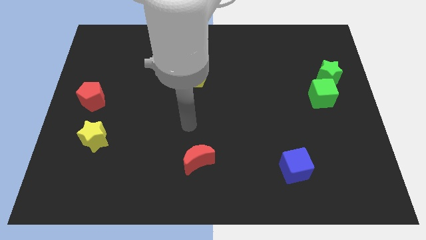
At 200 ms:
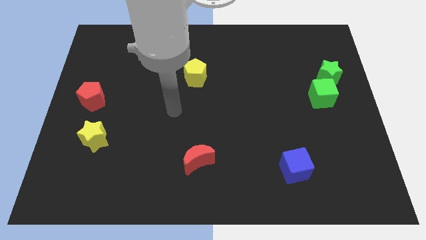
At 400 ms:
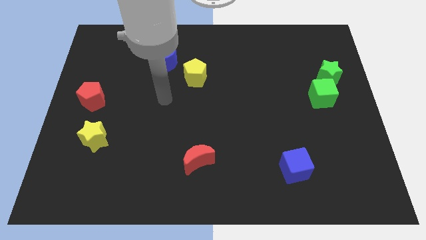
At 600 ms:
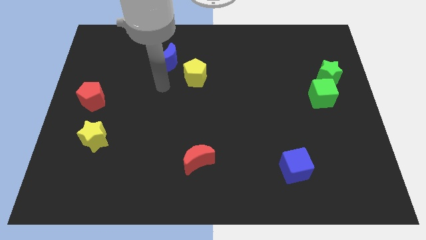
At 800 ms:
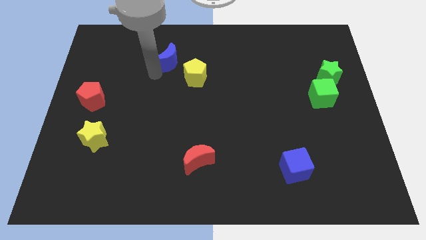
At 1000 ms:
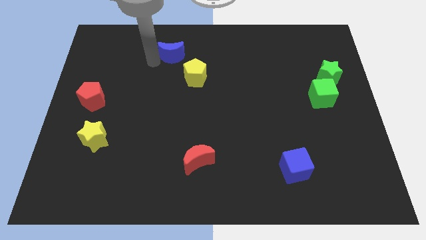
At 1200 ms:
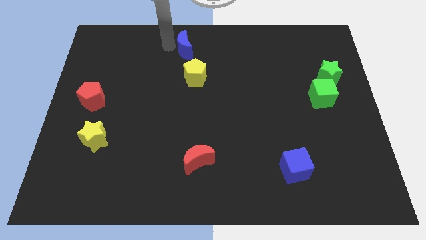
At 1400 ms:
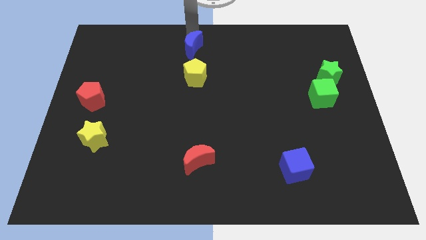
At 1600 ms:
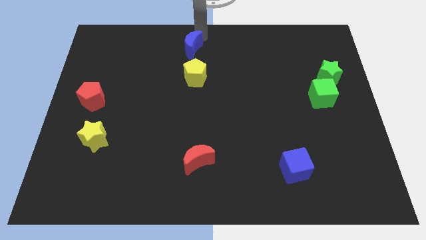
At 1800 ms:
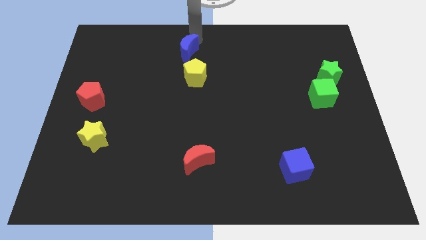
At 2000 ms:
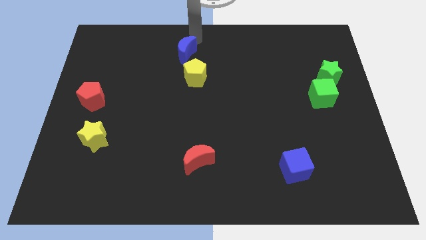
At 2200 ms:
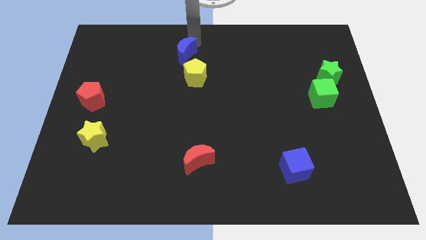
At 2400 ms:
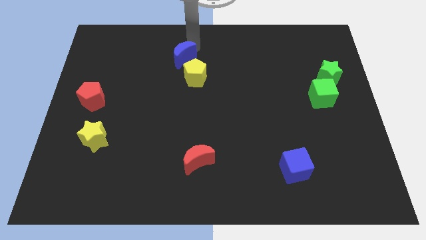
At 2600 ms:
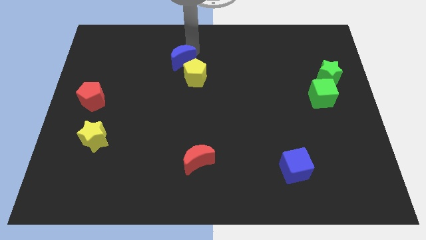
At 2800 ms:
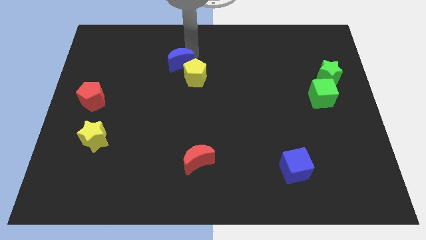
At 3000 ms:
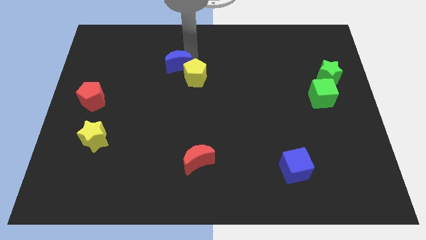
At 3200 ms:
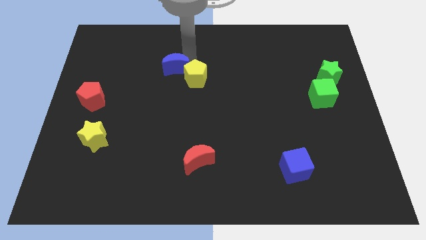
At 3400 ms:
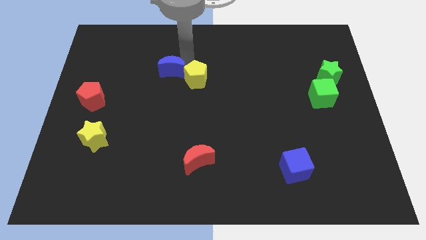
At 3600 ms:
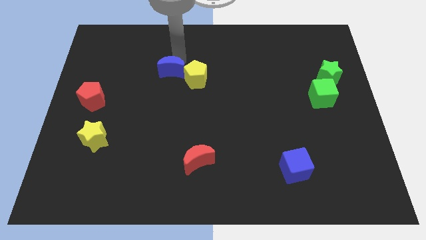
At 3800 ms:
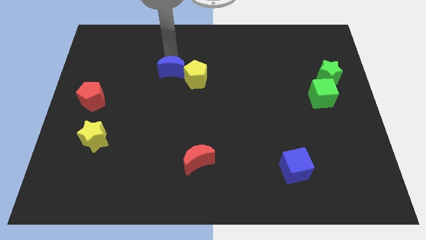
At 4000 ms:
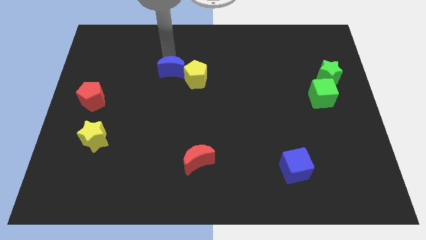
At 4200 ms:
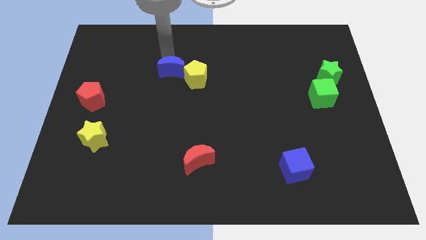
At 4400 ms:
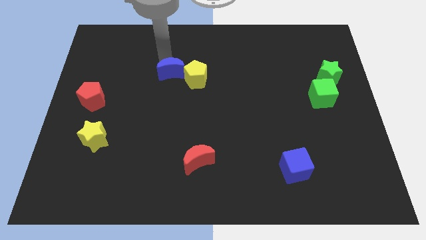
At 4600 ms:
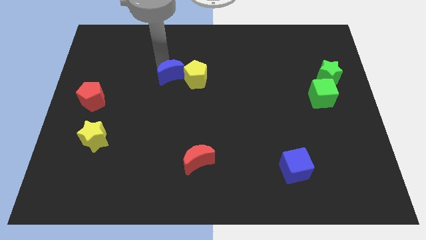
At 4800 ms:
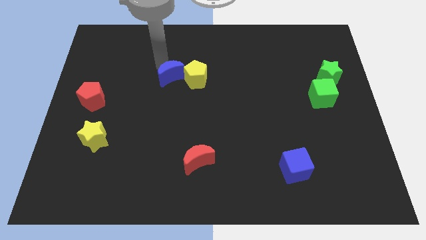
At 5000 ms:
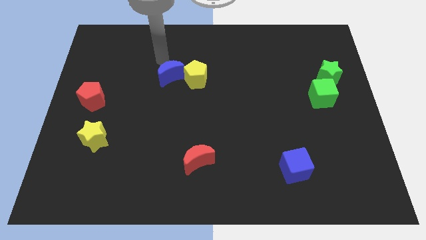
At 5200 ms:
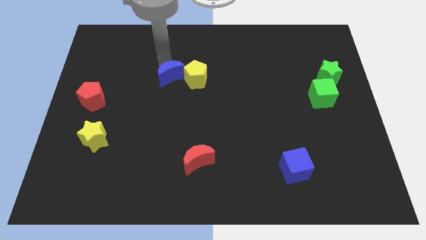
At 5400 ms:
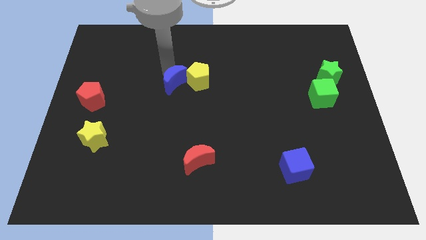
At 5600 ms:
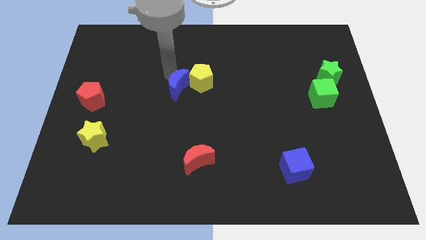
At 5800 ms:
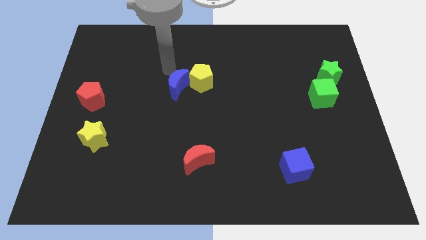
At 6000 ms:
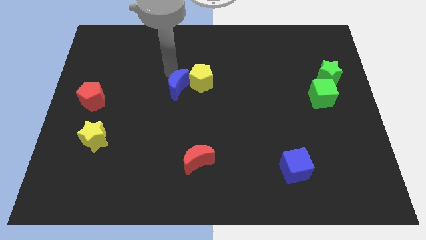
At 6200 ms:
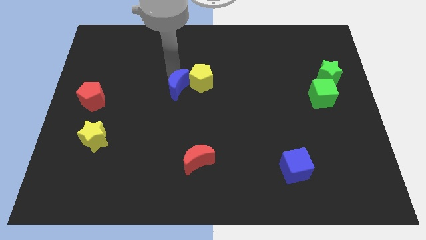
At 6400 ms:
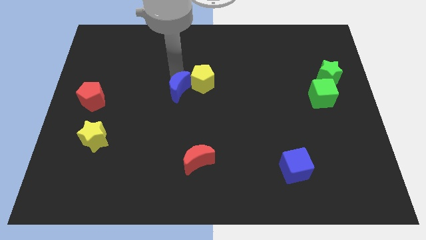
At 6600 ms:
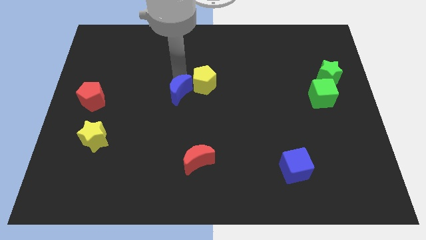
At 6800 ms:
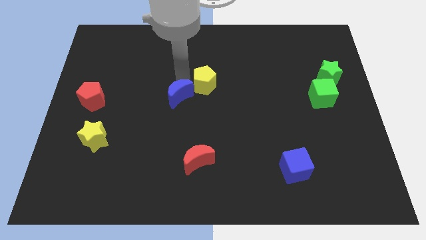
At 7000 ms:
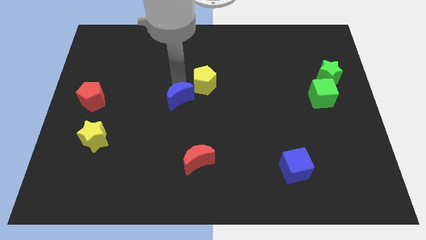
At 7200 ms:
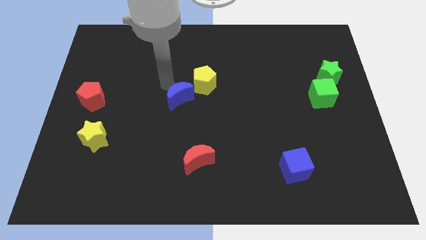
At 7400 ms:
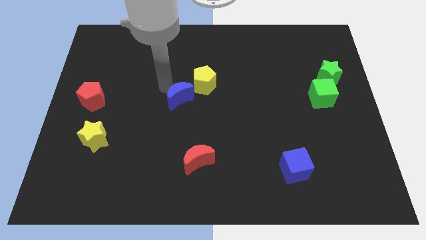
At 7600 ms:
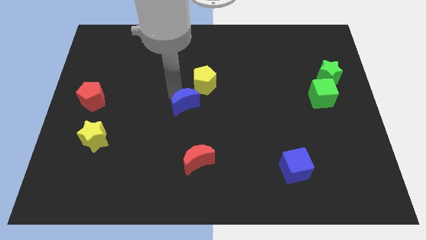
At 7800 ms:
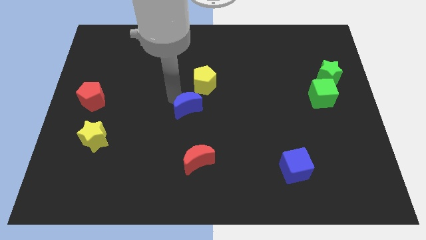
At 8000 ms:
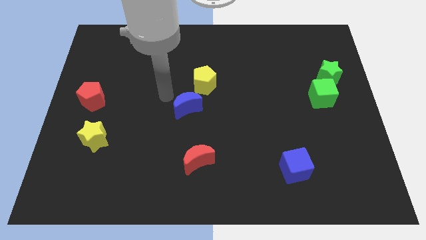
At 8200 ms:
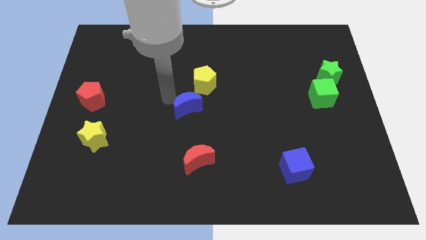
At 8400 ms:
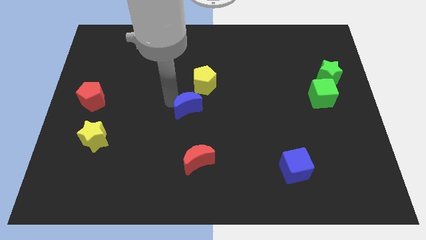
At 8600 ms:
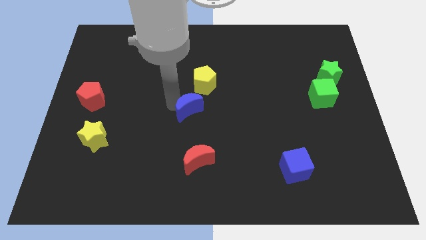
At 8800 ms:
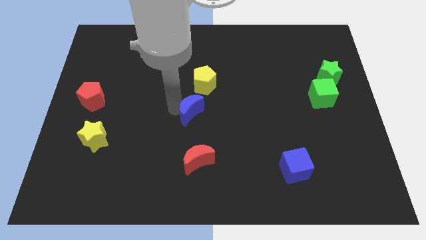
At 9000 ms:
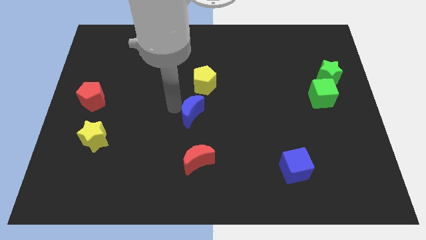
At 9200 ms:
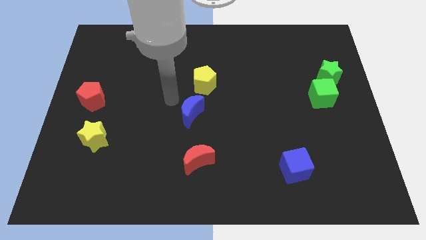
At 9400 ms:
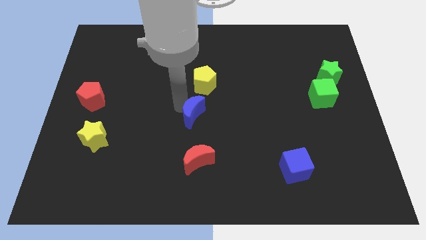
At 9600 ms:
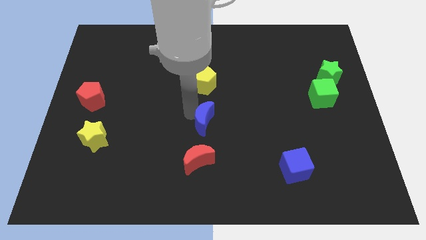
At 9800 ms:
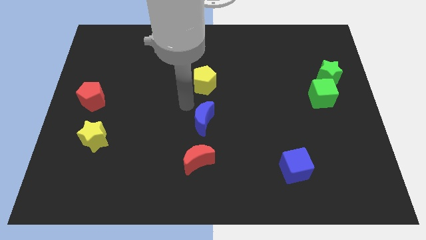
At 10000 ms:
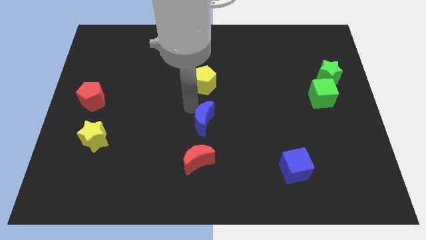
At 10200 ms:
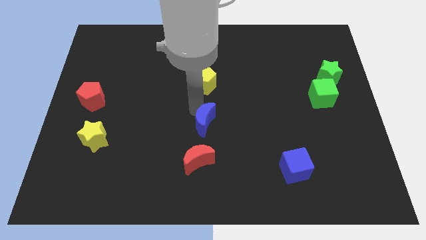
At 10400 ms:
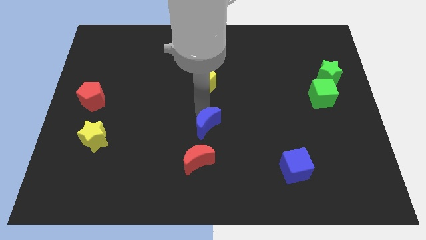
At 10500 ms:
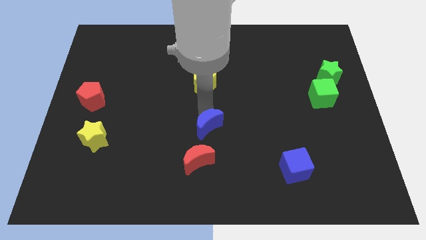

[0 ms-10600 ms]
slide the blue moon to the top right side of the red moon

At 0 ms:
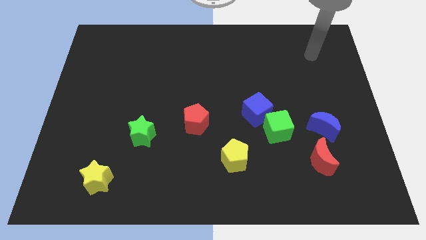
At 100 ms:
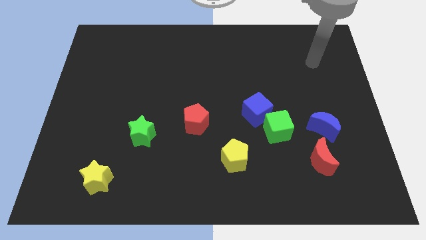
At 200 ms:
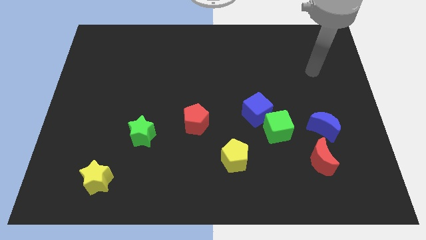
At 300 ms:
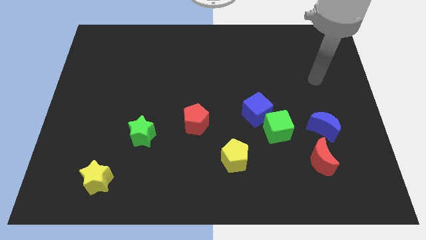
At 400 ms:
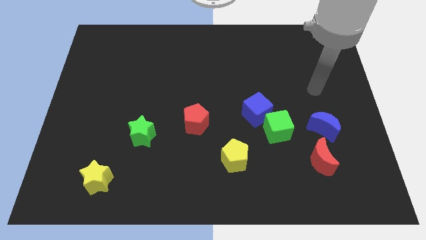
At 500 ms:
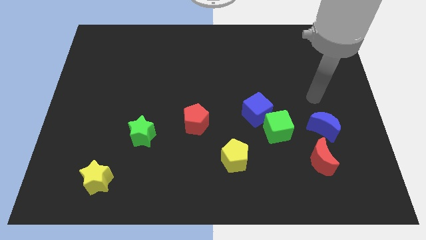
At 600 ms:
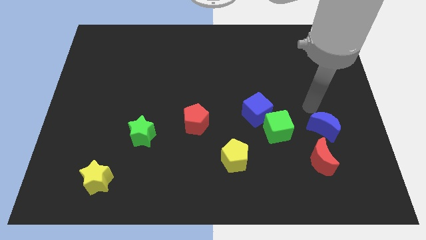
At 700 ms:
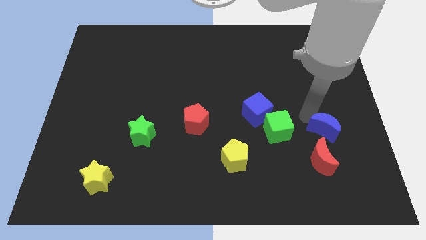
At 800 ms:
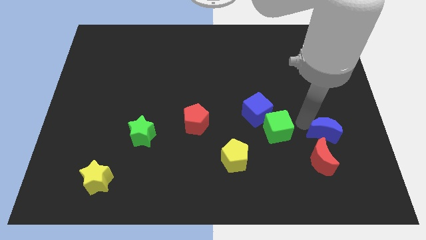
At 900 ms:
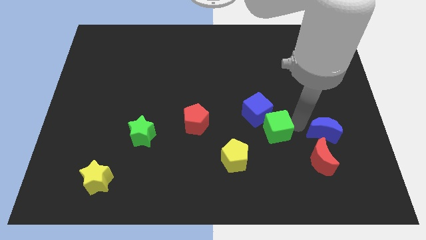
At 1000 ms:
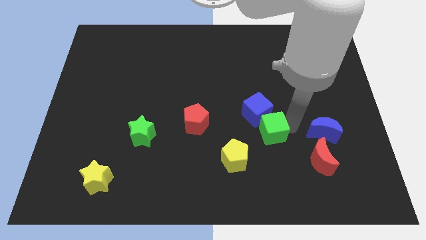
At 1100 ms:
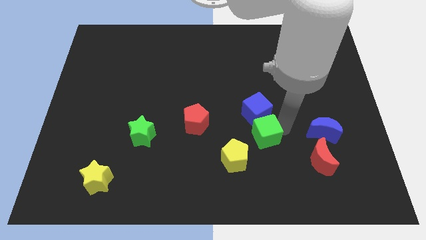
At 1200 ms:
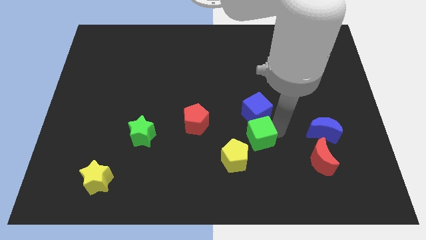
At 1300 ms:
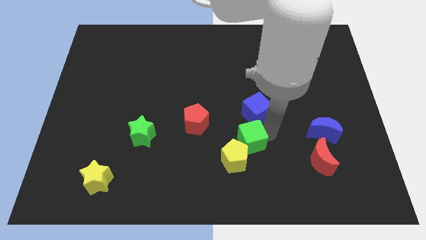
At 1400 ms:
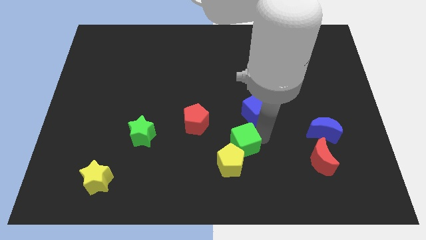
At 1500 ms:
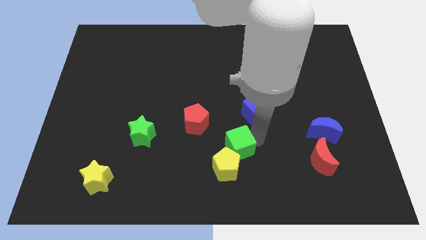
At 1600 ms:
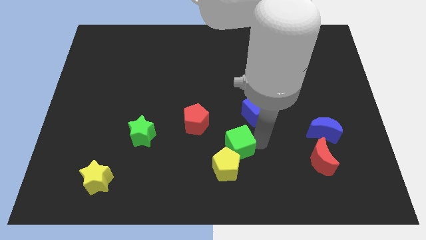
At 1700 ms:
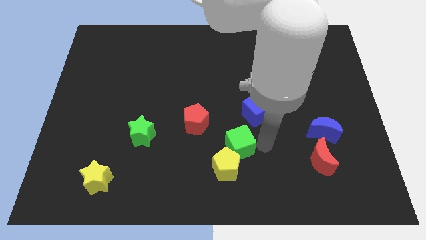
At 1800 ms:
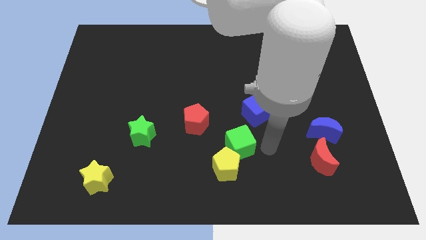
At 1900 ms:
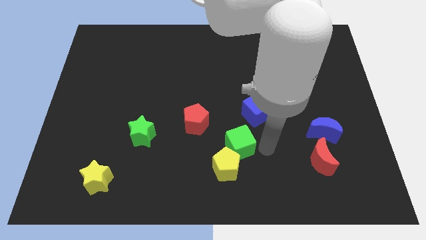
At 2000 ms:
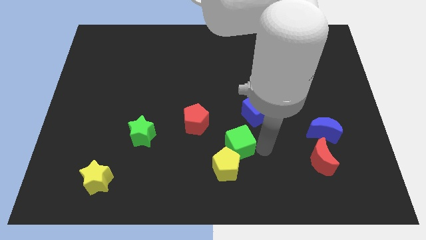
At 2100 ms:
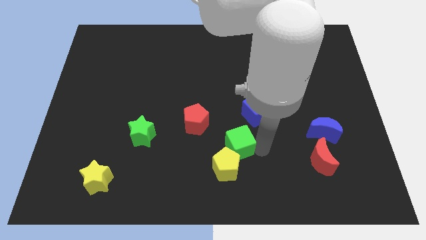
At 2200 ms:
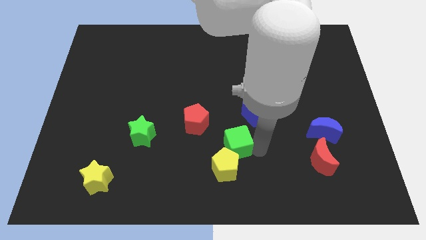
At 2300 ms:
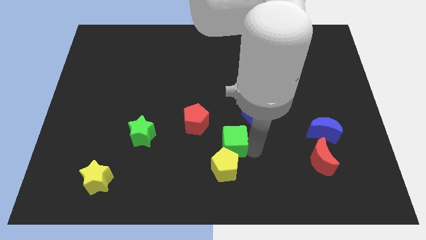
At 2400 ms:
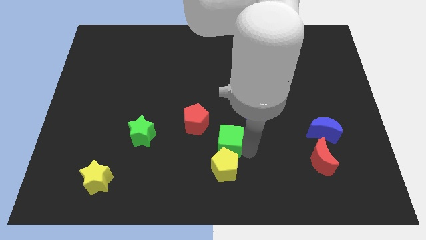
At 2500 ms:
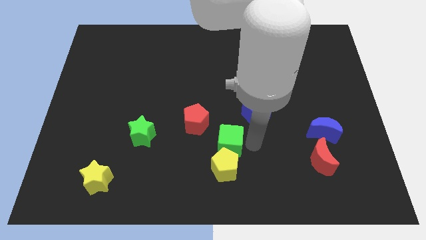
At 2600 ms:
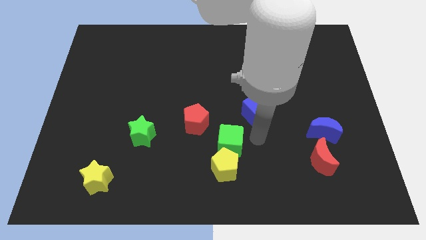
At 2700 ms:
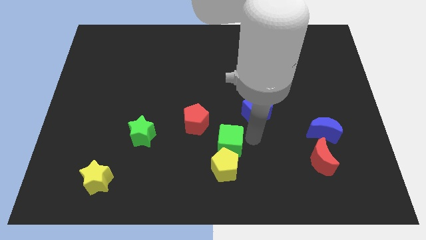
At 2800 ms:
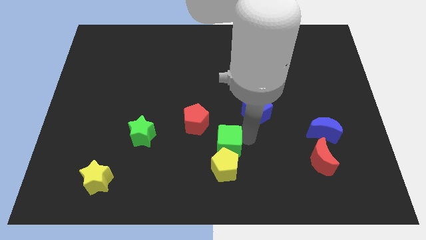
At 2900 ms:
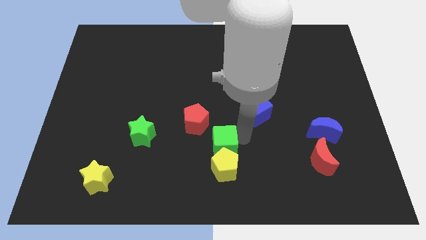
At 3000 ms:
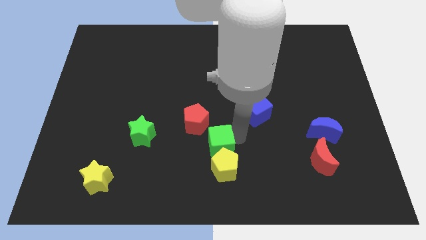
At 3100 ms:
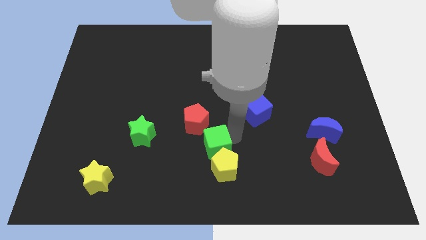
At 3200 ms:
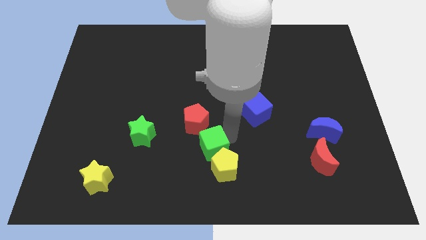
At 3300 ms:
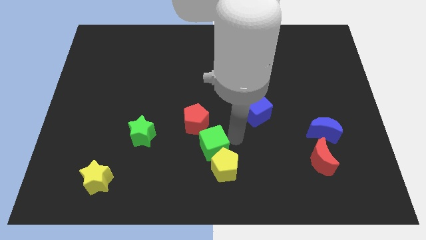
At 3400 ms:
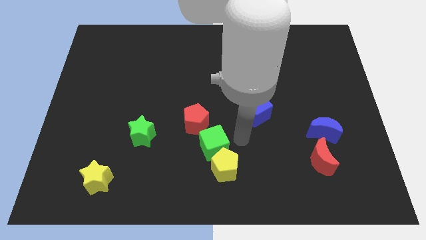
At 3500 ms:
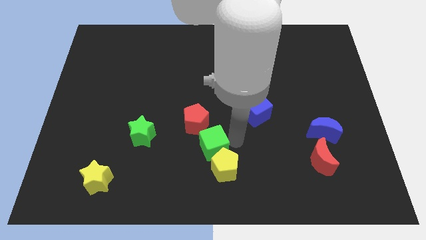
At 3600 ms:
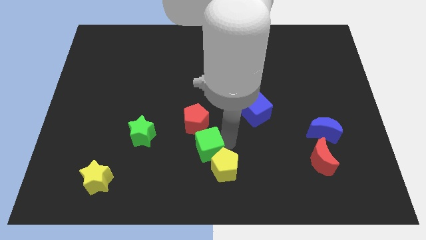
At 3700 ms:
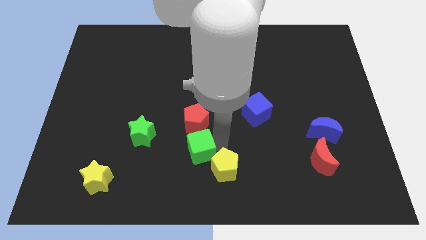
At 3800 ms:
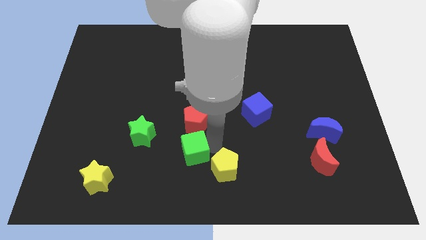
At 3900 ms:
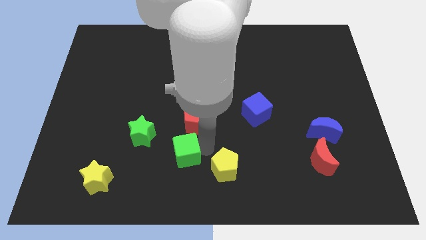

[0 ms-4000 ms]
move the green cube diagonally down and to the right of the green star
